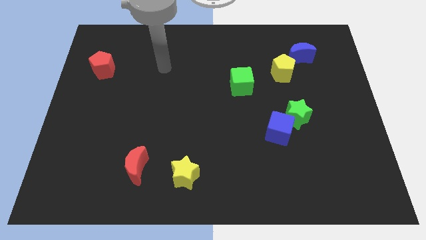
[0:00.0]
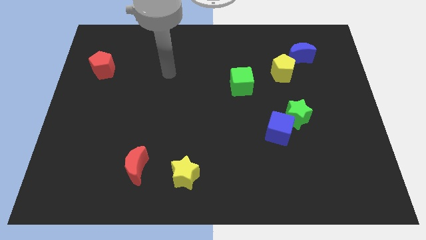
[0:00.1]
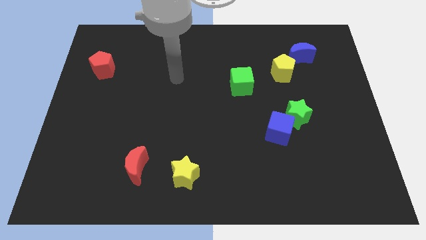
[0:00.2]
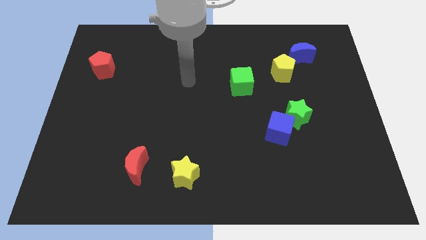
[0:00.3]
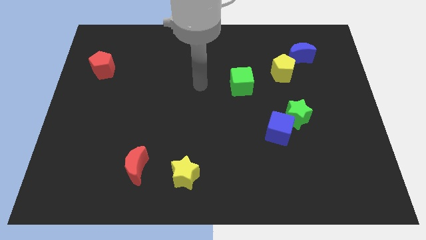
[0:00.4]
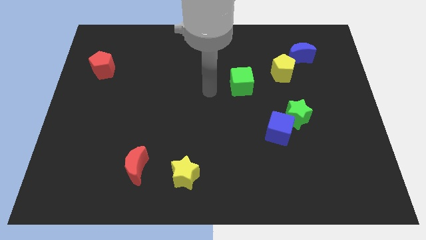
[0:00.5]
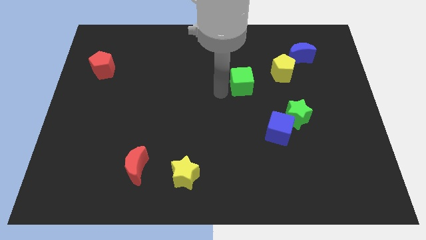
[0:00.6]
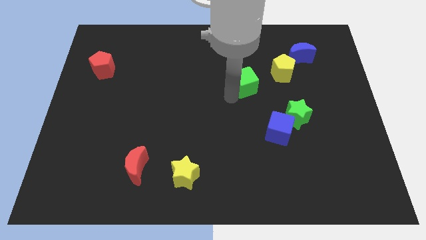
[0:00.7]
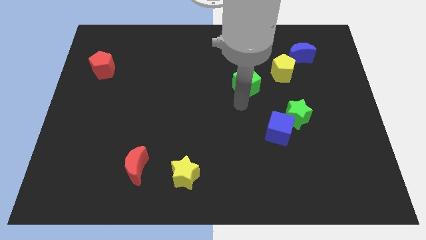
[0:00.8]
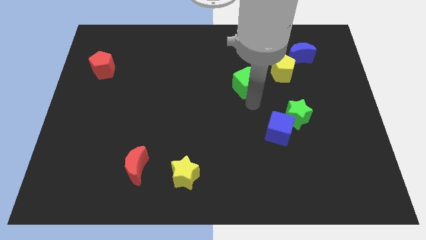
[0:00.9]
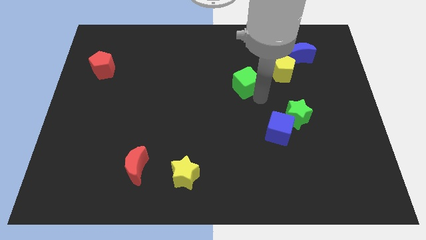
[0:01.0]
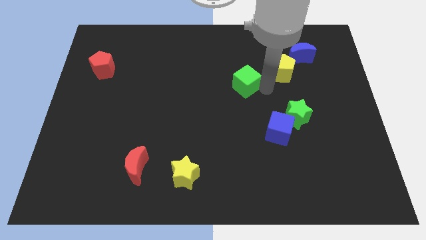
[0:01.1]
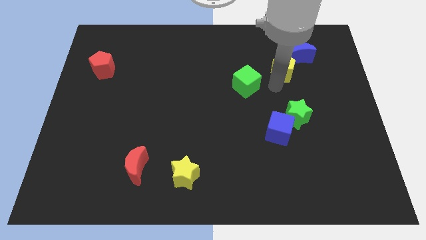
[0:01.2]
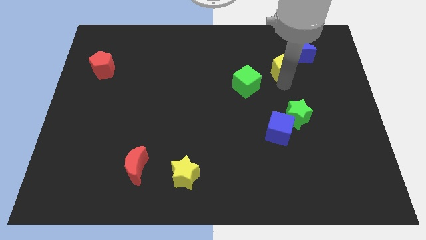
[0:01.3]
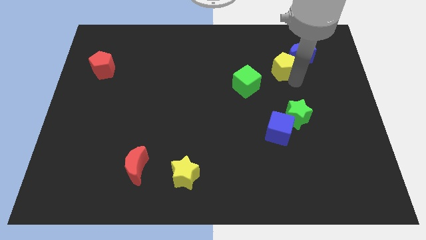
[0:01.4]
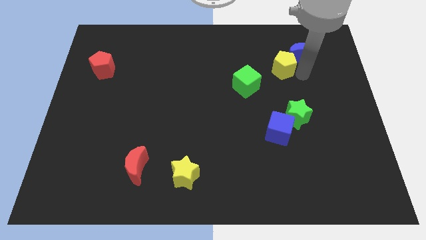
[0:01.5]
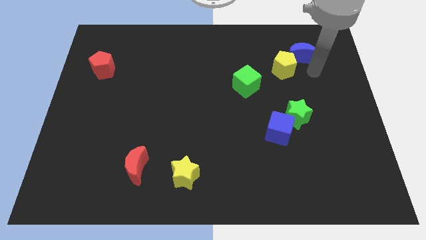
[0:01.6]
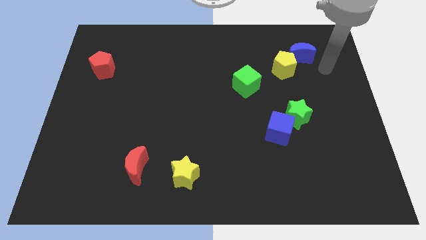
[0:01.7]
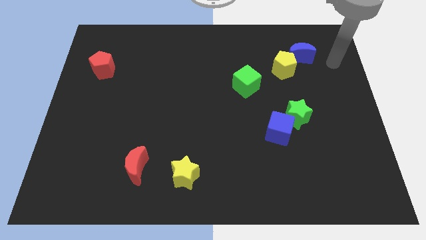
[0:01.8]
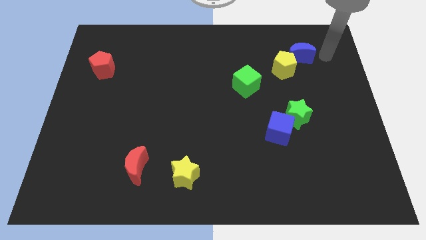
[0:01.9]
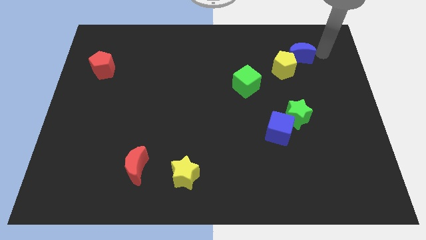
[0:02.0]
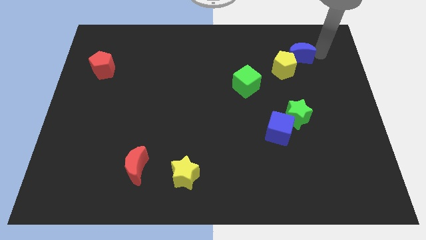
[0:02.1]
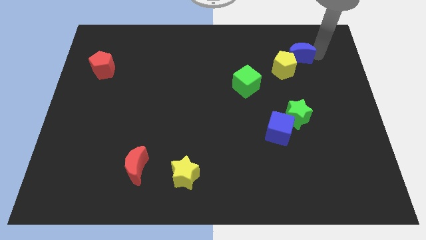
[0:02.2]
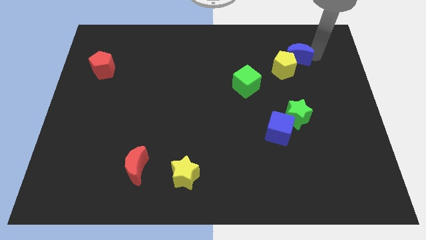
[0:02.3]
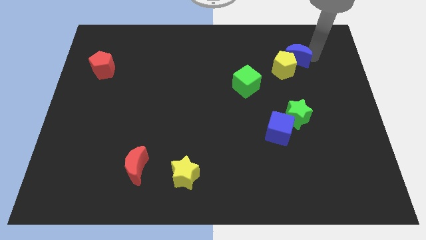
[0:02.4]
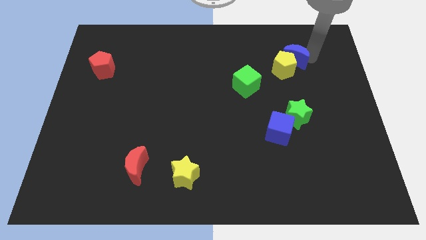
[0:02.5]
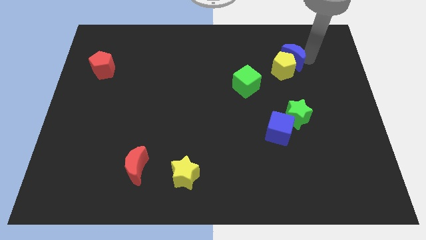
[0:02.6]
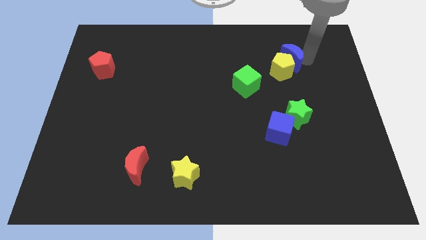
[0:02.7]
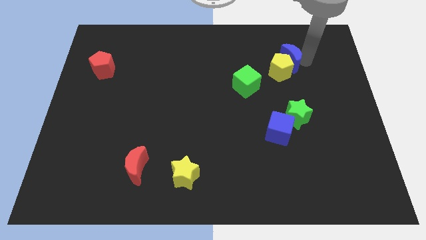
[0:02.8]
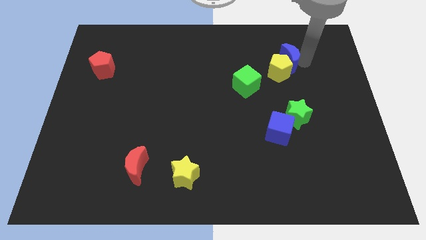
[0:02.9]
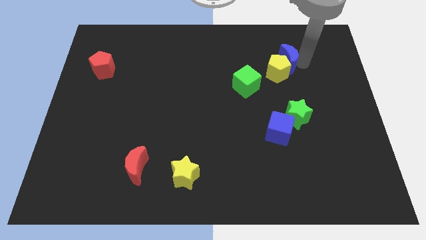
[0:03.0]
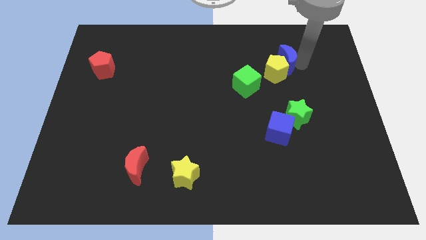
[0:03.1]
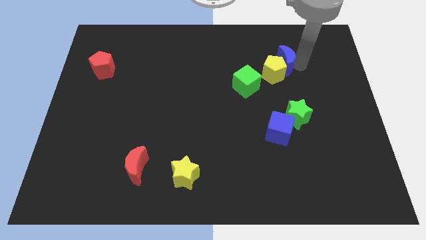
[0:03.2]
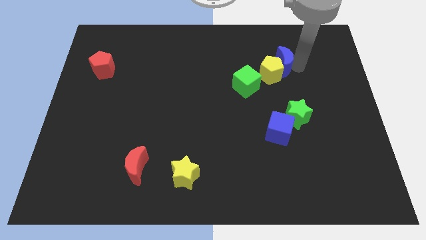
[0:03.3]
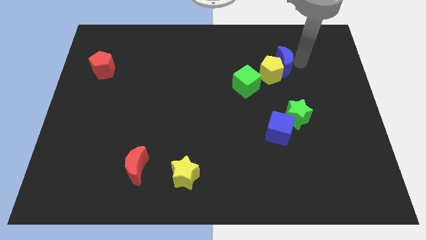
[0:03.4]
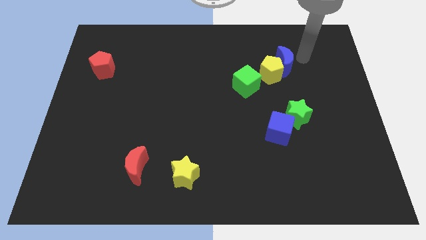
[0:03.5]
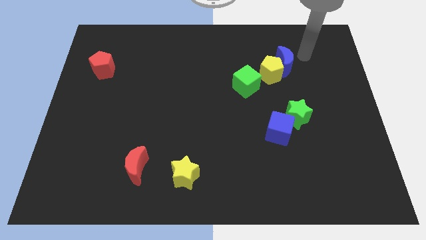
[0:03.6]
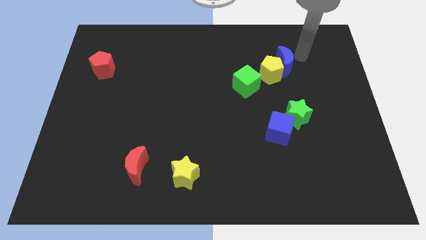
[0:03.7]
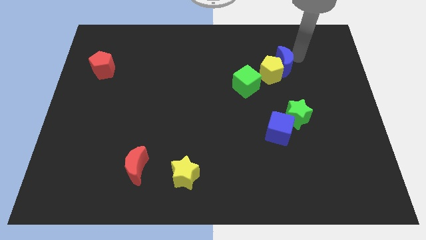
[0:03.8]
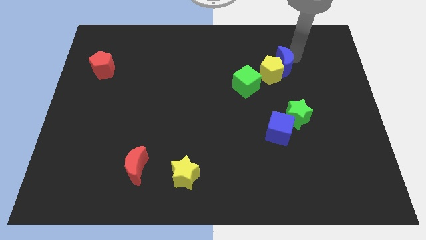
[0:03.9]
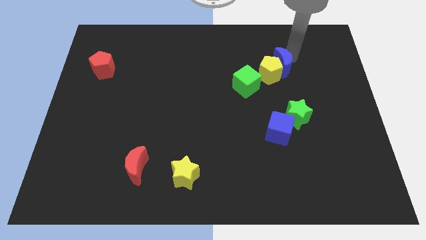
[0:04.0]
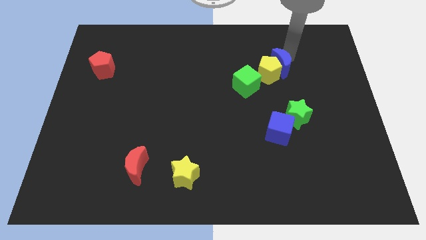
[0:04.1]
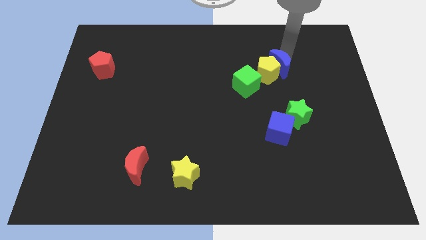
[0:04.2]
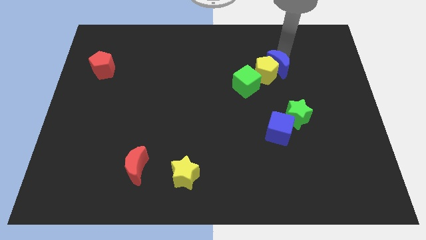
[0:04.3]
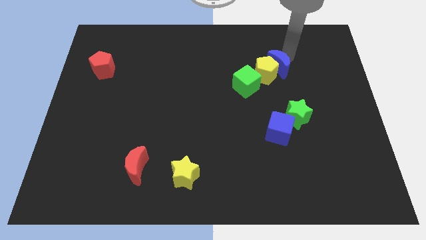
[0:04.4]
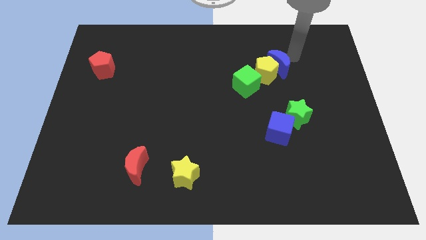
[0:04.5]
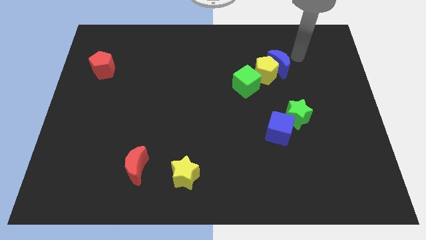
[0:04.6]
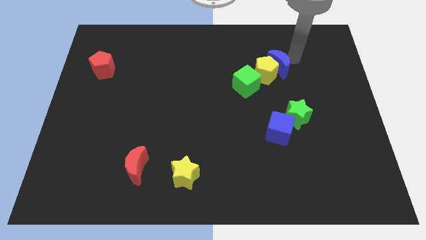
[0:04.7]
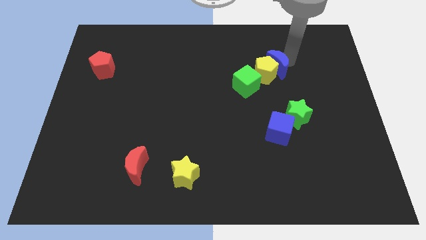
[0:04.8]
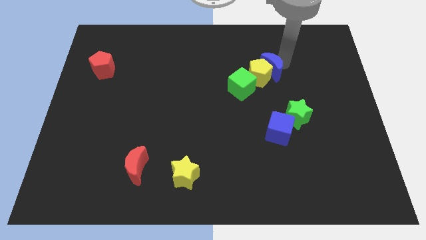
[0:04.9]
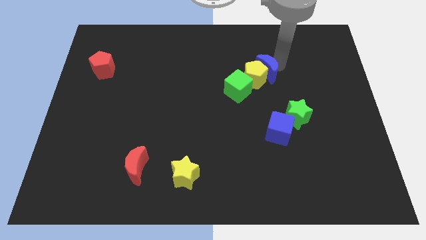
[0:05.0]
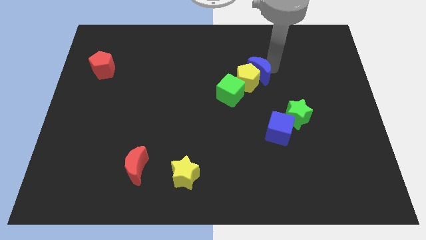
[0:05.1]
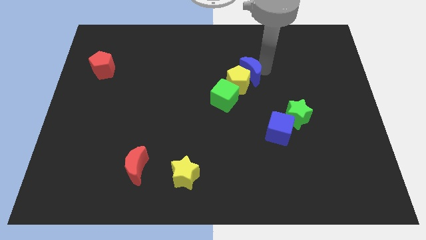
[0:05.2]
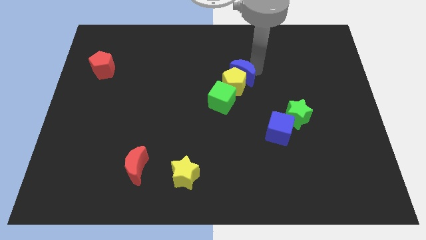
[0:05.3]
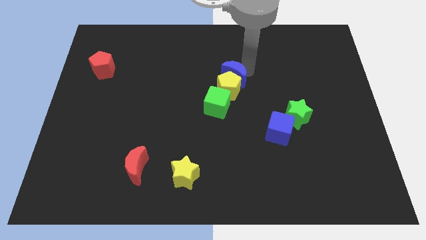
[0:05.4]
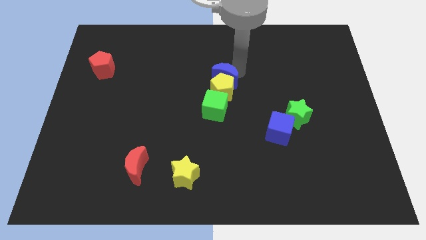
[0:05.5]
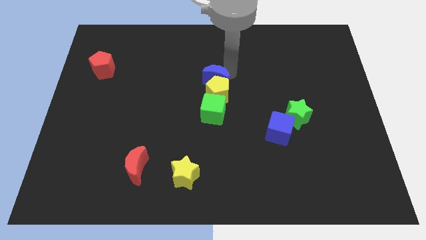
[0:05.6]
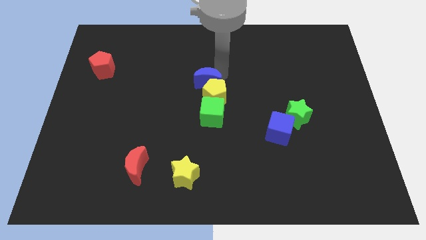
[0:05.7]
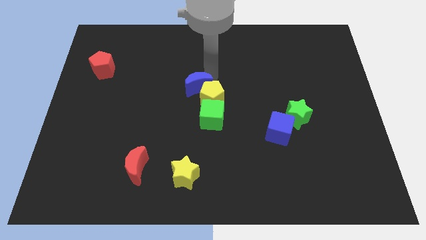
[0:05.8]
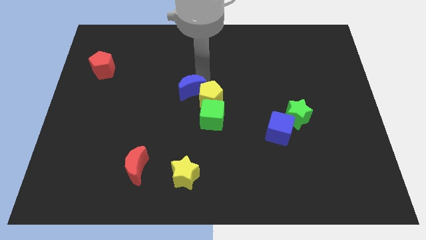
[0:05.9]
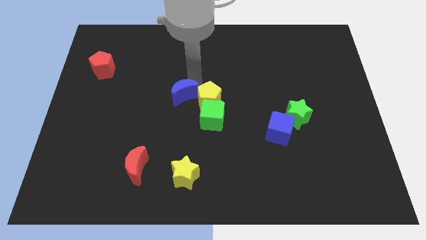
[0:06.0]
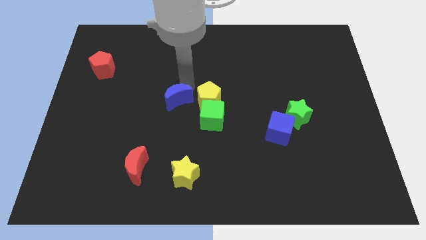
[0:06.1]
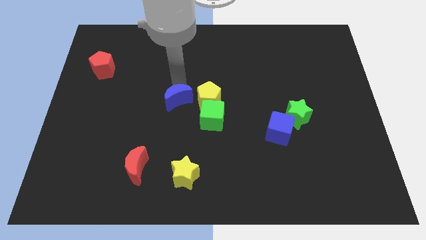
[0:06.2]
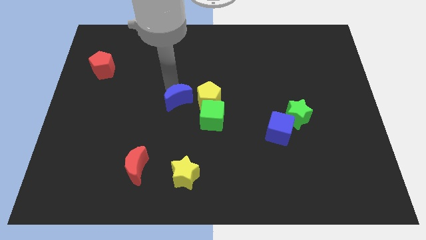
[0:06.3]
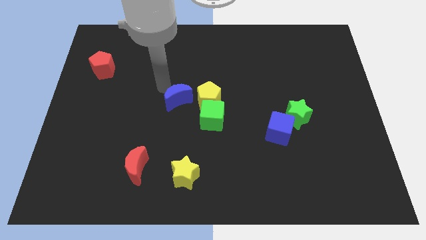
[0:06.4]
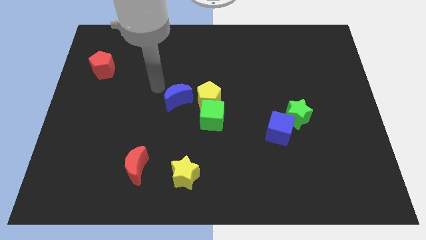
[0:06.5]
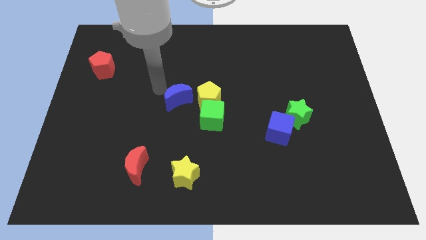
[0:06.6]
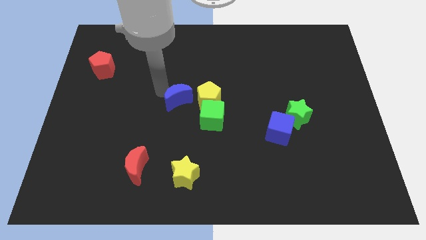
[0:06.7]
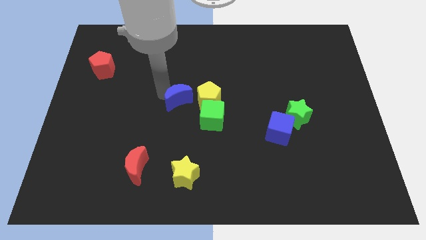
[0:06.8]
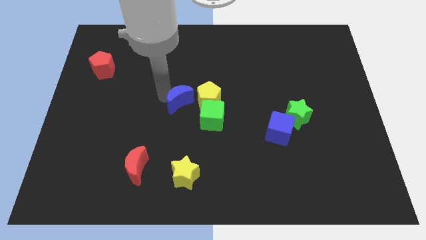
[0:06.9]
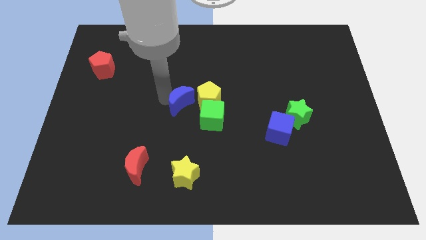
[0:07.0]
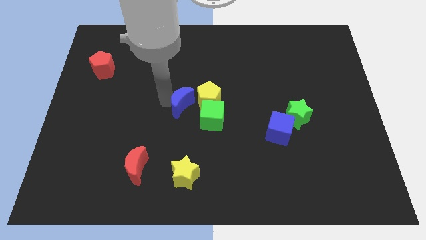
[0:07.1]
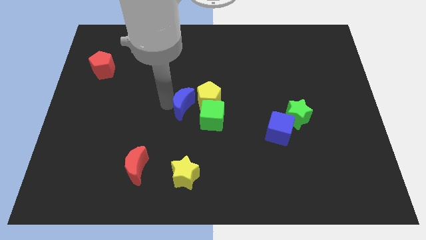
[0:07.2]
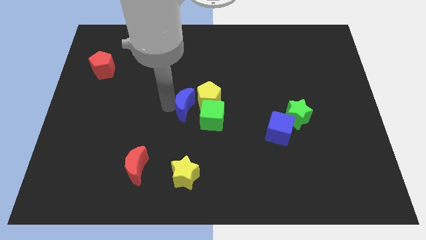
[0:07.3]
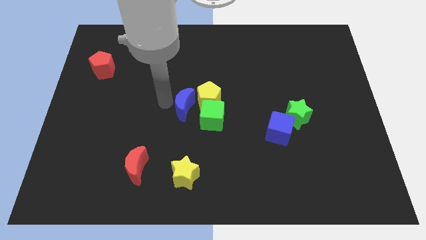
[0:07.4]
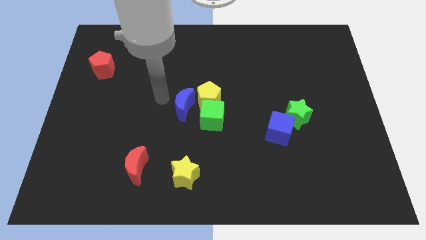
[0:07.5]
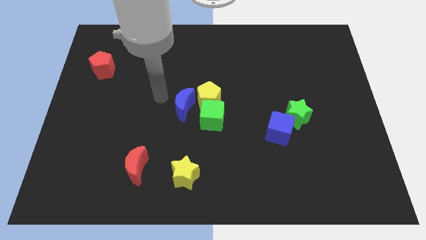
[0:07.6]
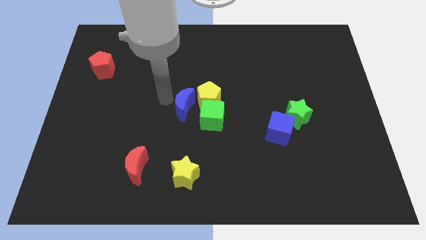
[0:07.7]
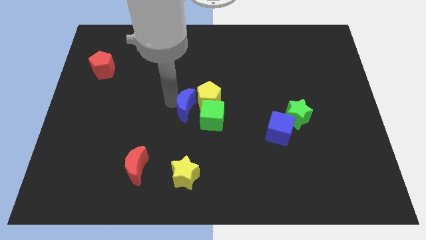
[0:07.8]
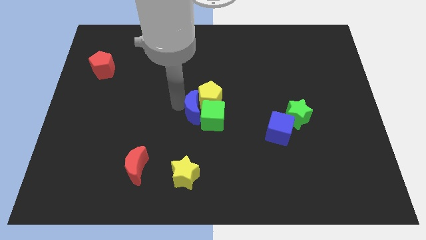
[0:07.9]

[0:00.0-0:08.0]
push the blue moon towards the green cube
